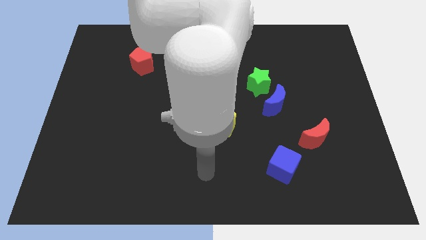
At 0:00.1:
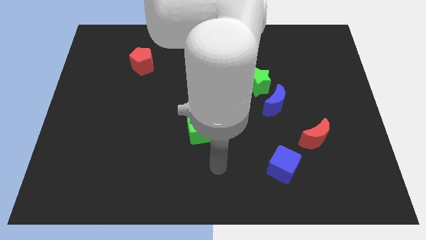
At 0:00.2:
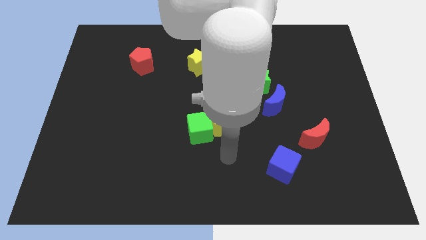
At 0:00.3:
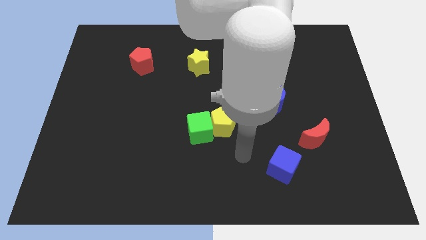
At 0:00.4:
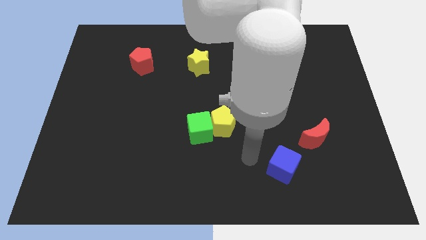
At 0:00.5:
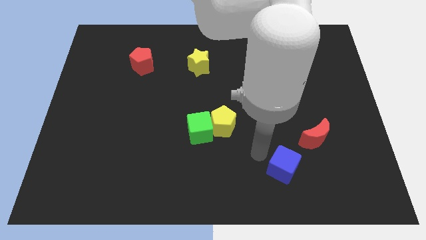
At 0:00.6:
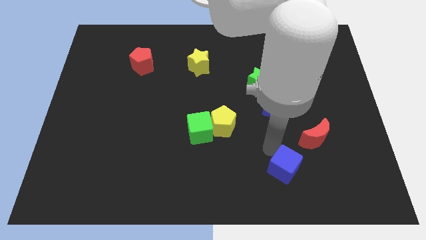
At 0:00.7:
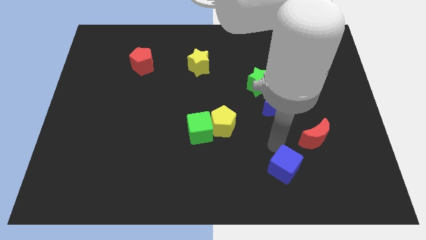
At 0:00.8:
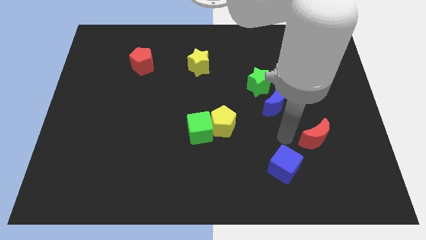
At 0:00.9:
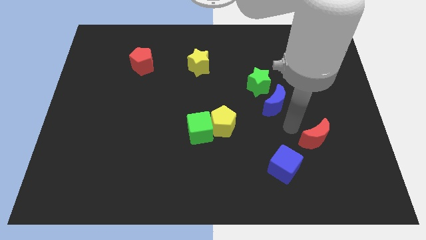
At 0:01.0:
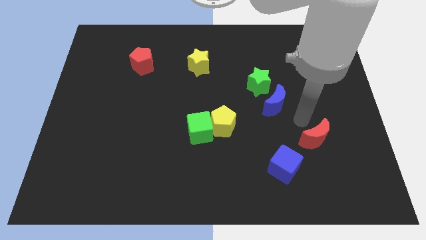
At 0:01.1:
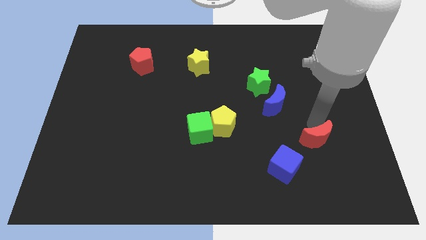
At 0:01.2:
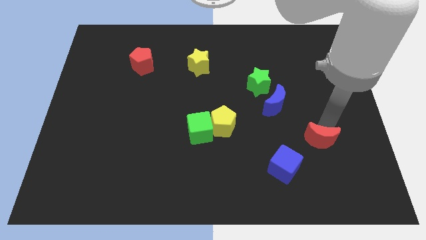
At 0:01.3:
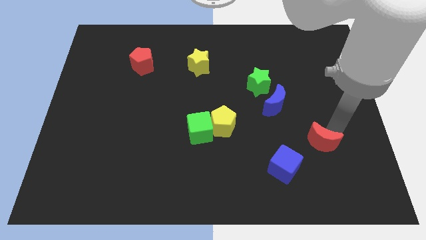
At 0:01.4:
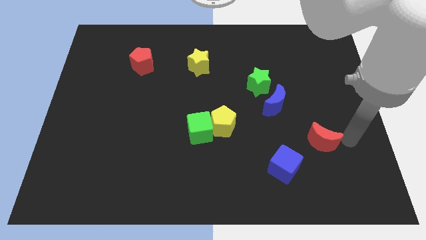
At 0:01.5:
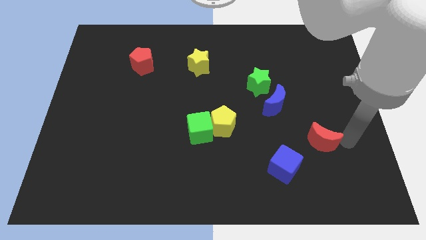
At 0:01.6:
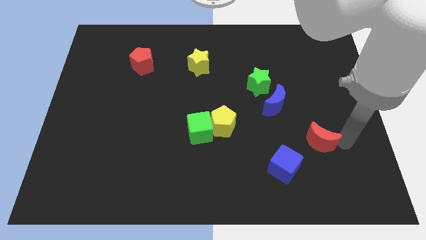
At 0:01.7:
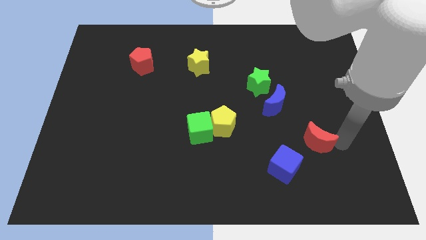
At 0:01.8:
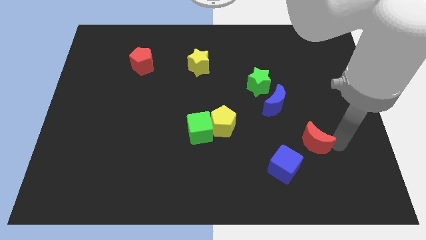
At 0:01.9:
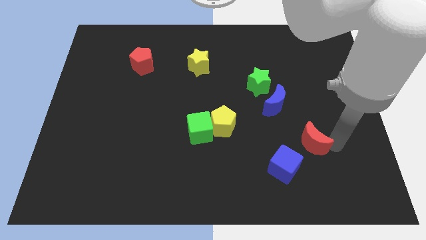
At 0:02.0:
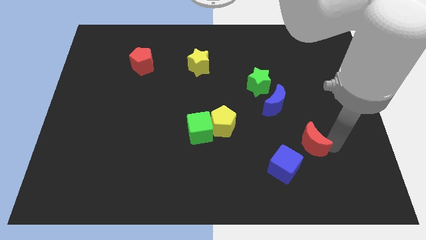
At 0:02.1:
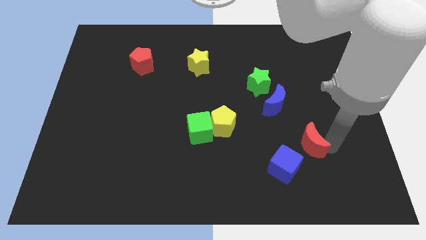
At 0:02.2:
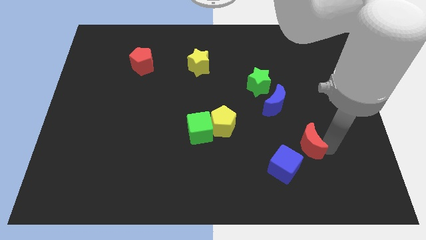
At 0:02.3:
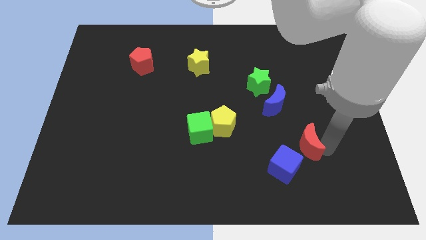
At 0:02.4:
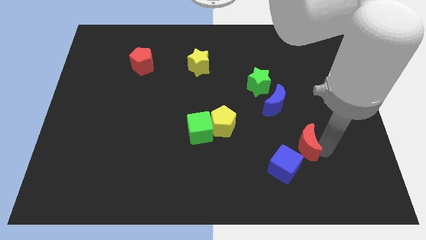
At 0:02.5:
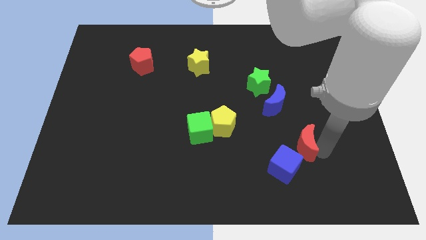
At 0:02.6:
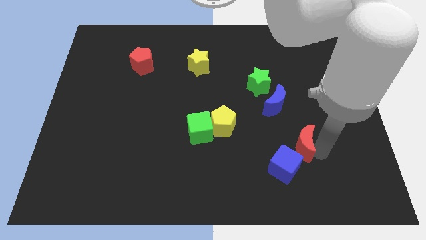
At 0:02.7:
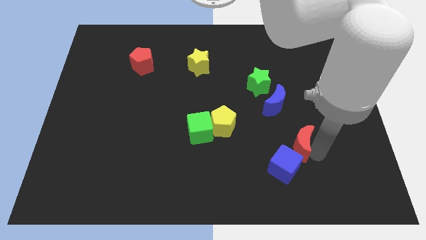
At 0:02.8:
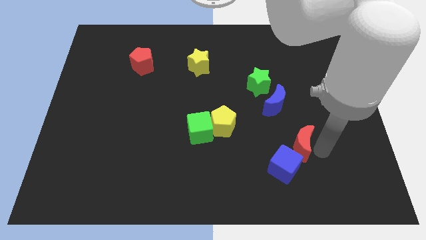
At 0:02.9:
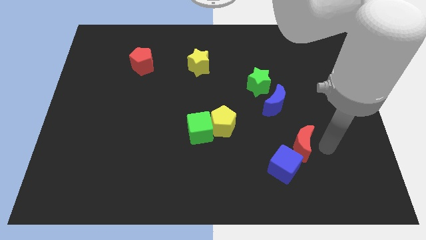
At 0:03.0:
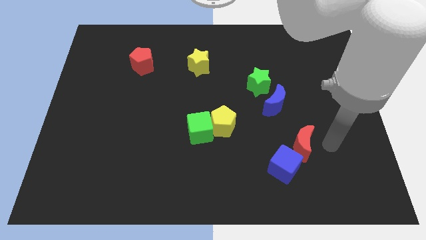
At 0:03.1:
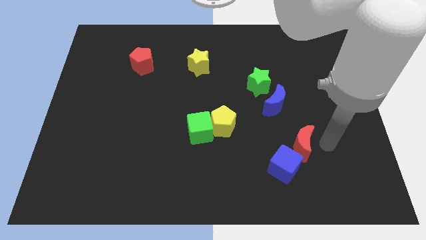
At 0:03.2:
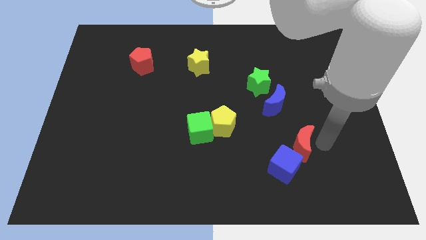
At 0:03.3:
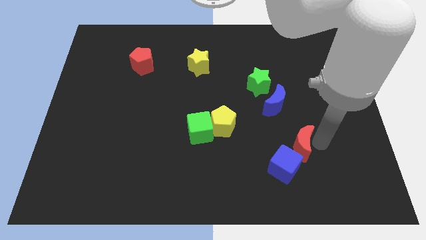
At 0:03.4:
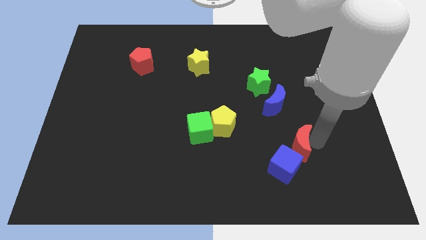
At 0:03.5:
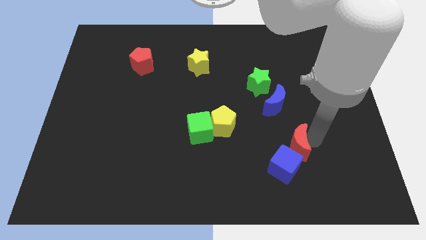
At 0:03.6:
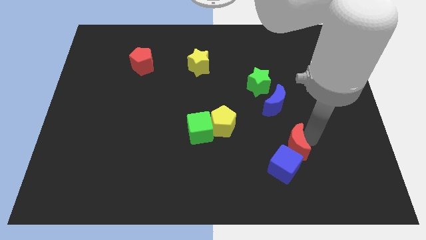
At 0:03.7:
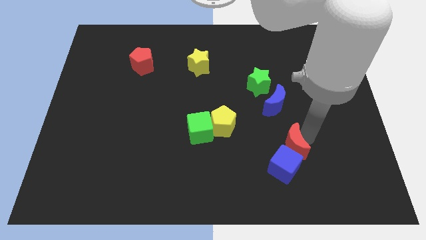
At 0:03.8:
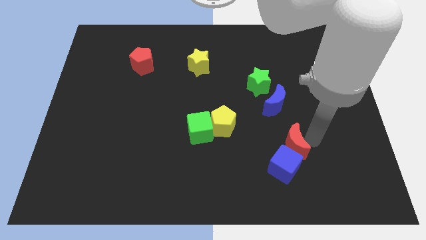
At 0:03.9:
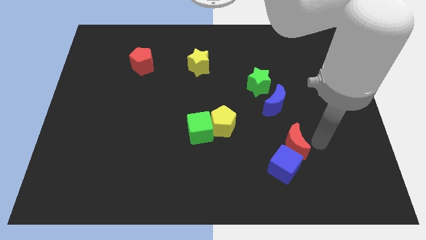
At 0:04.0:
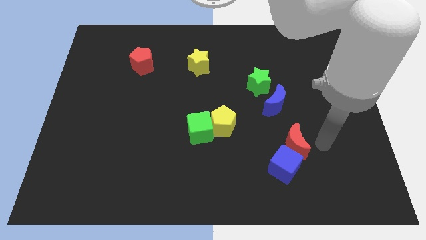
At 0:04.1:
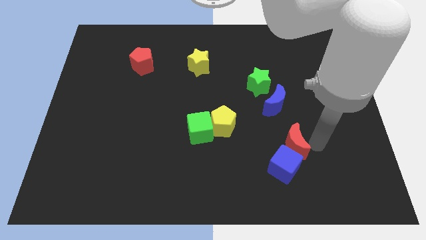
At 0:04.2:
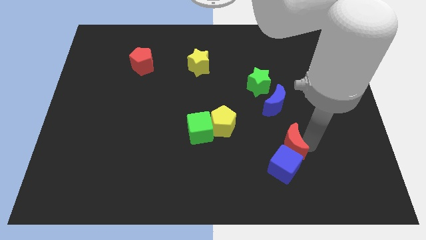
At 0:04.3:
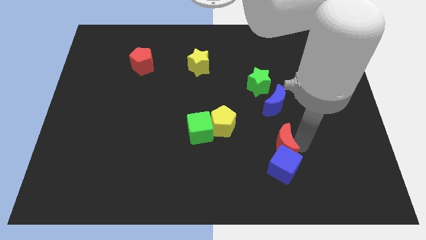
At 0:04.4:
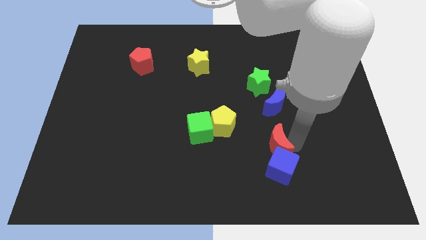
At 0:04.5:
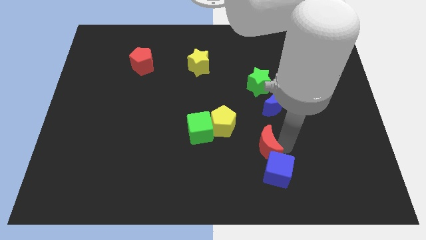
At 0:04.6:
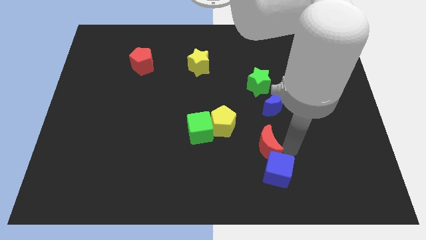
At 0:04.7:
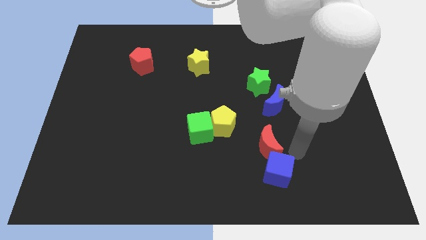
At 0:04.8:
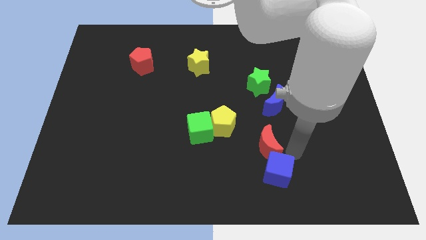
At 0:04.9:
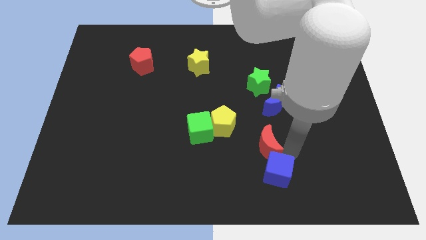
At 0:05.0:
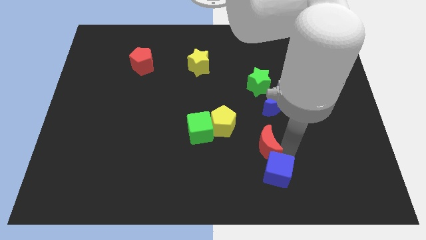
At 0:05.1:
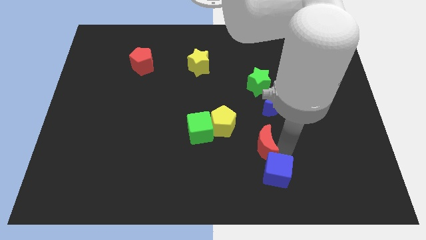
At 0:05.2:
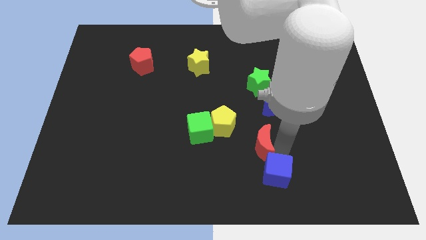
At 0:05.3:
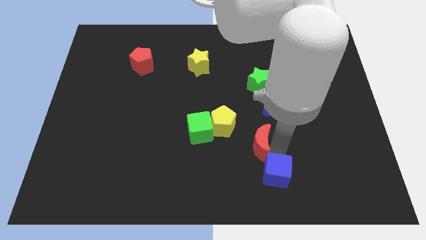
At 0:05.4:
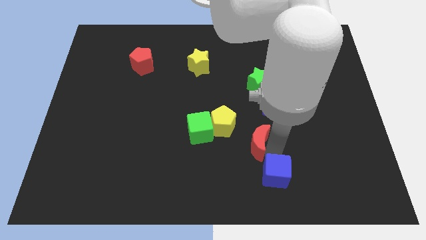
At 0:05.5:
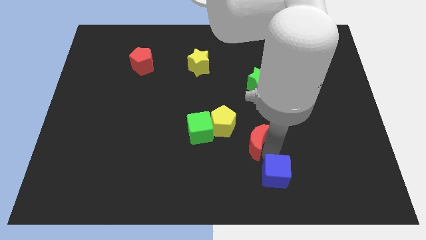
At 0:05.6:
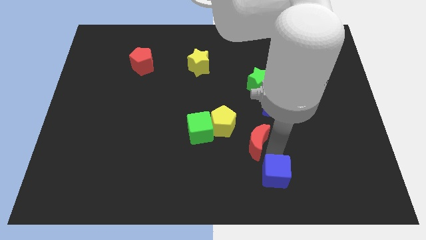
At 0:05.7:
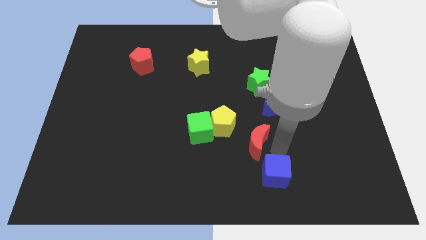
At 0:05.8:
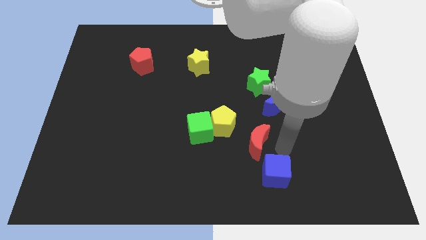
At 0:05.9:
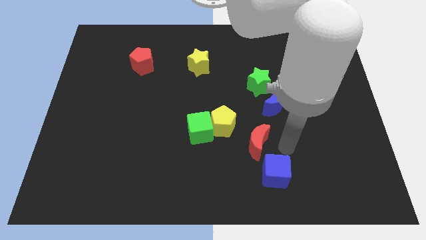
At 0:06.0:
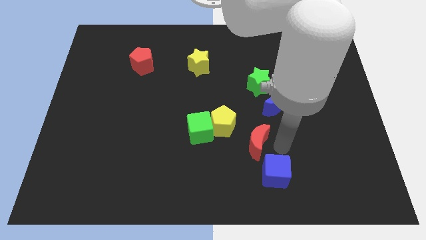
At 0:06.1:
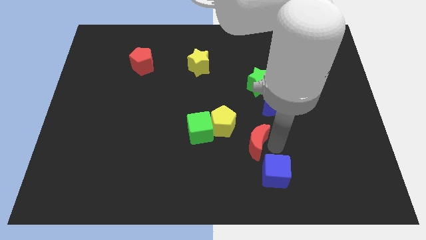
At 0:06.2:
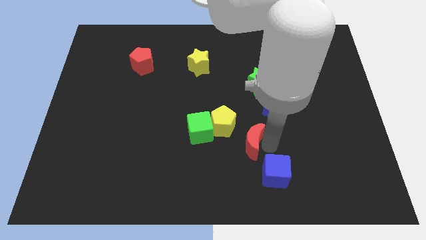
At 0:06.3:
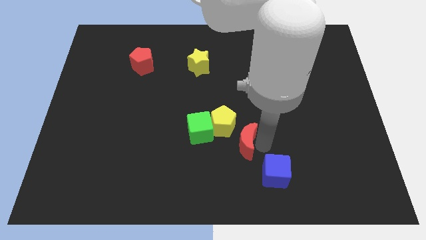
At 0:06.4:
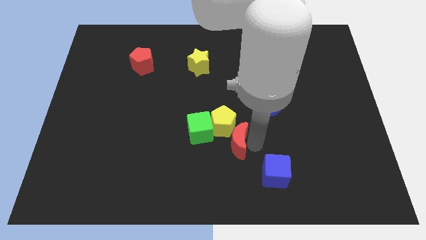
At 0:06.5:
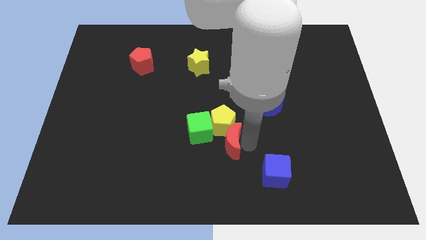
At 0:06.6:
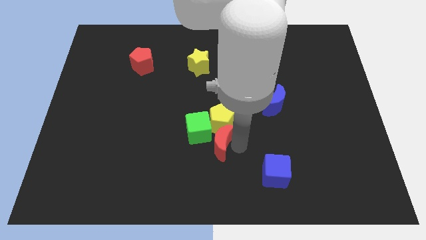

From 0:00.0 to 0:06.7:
put the red moon close to the green cube

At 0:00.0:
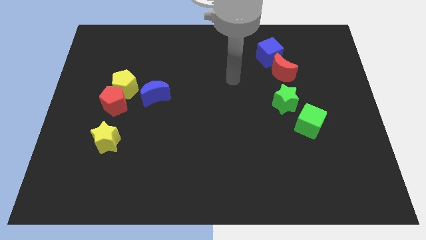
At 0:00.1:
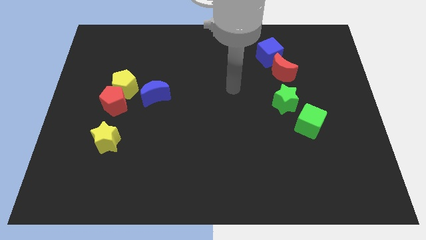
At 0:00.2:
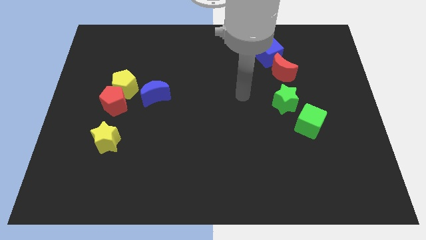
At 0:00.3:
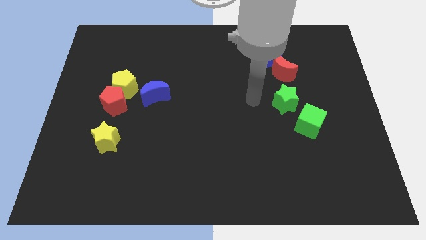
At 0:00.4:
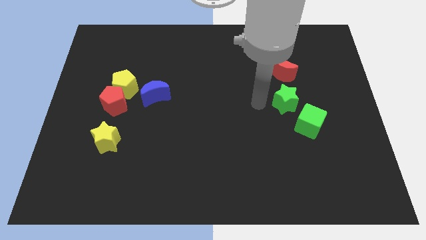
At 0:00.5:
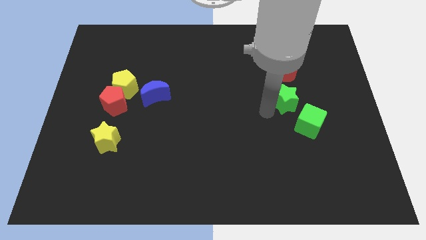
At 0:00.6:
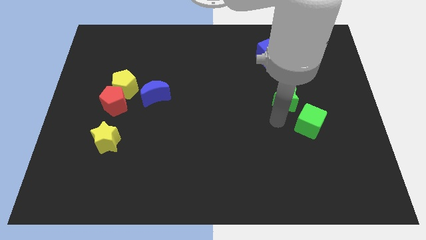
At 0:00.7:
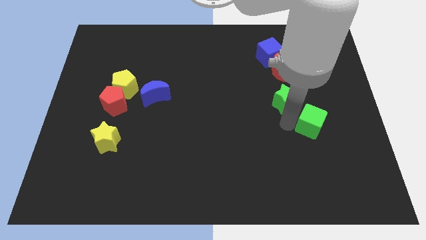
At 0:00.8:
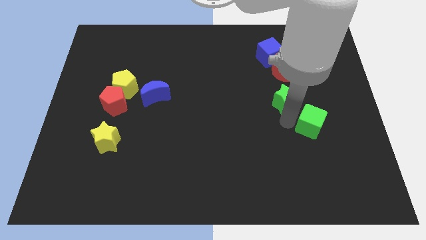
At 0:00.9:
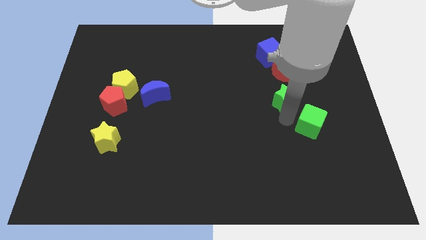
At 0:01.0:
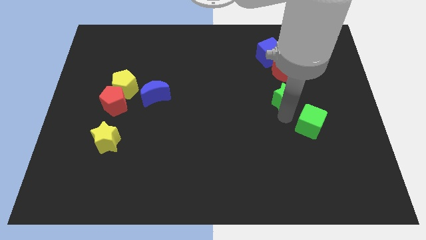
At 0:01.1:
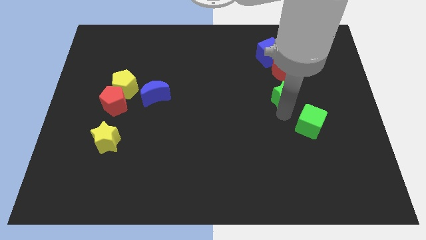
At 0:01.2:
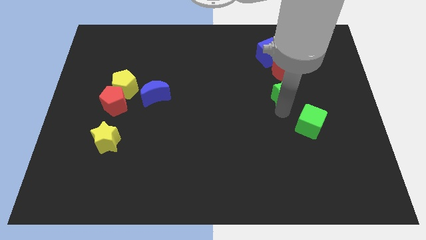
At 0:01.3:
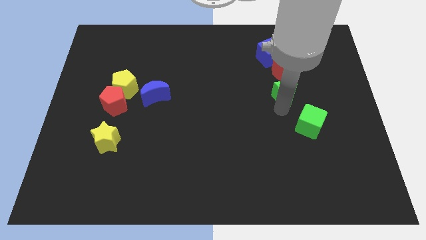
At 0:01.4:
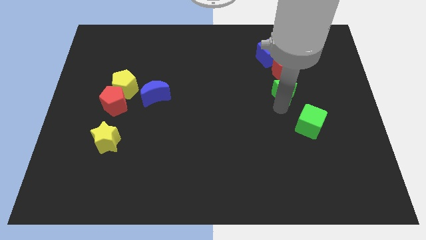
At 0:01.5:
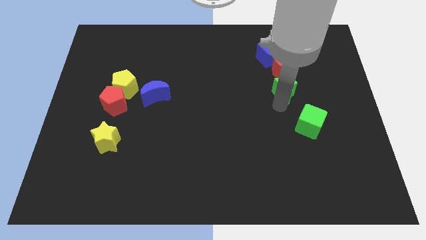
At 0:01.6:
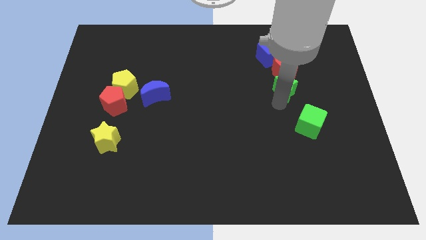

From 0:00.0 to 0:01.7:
move the green star towards the red moon
